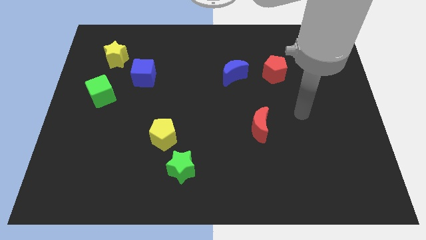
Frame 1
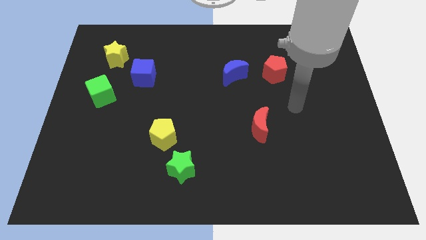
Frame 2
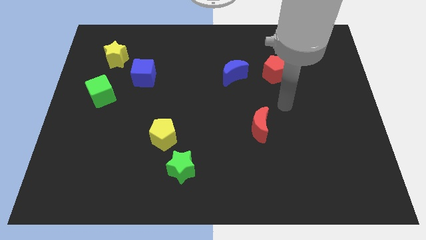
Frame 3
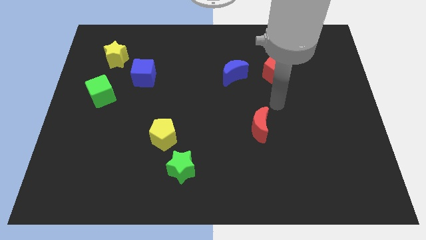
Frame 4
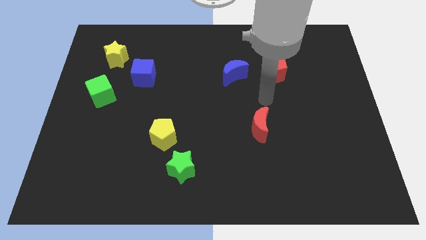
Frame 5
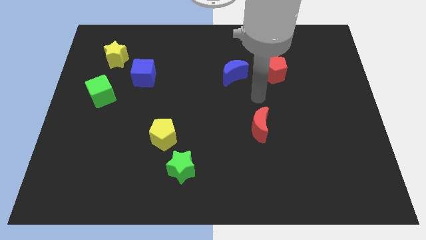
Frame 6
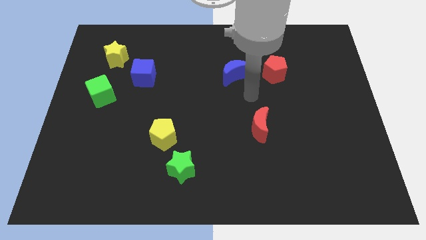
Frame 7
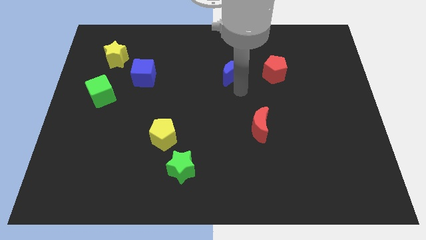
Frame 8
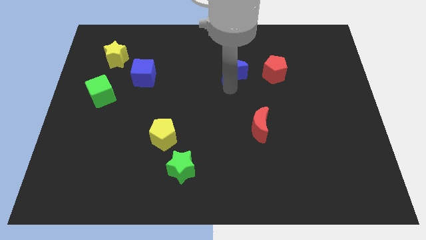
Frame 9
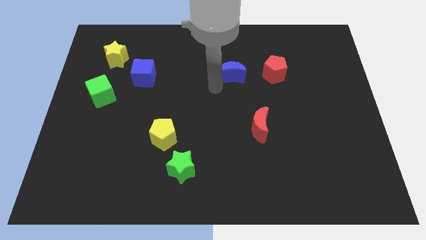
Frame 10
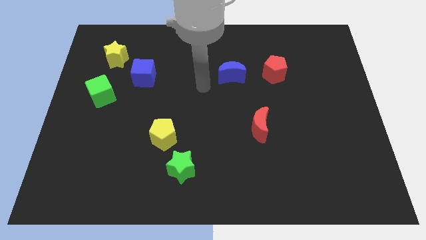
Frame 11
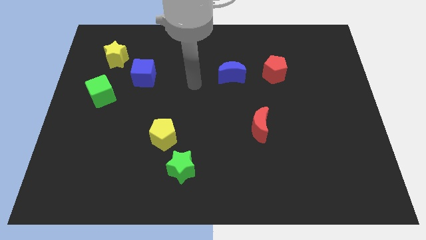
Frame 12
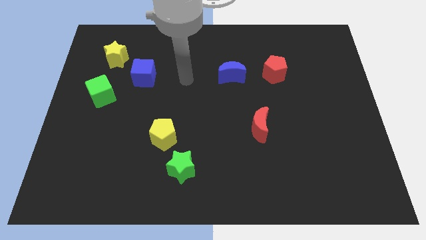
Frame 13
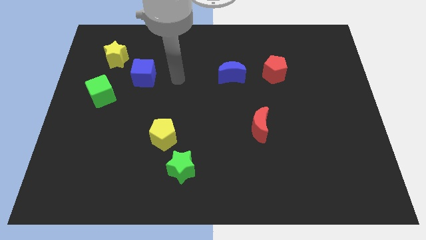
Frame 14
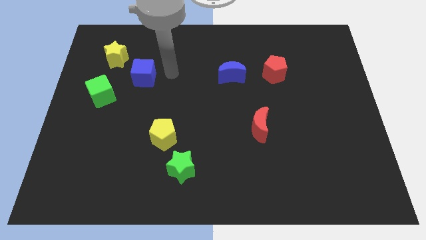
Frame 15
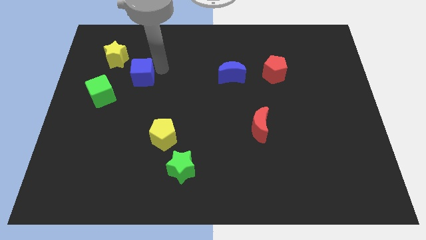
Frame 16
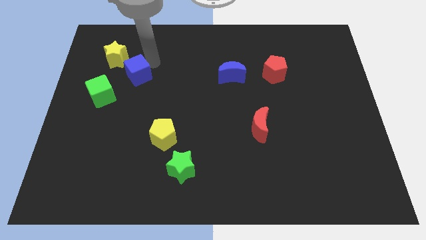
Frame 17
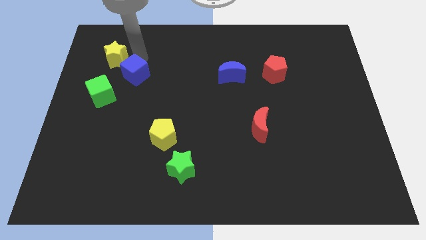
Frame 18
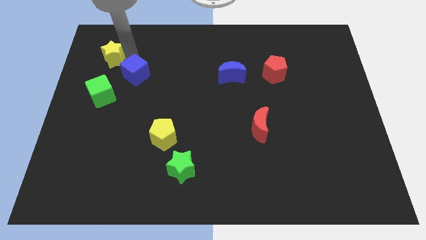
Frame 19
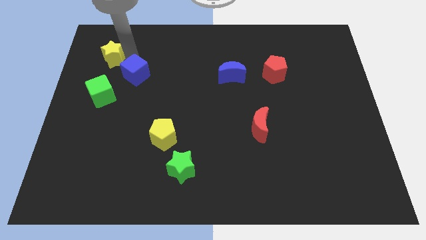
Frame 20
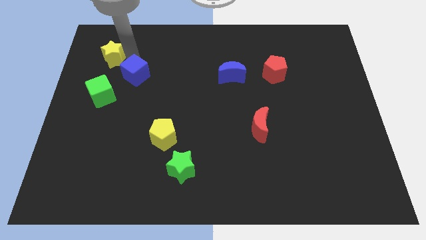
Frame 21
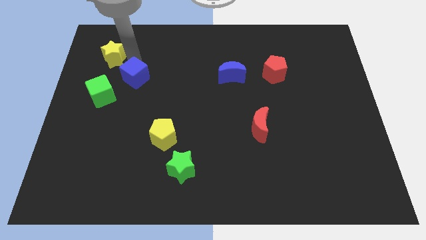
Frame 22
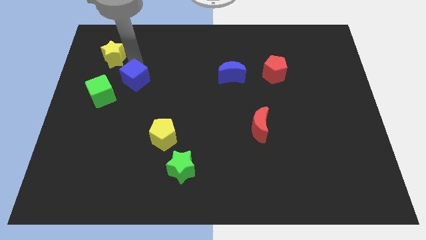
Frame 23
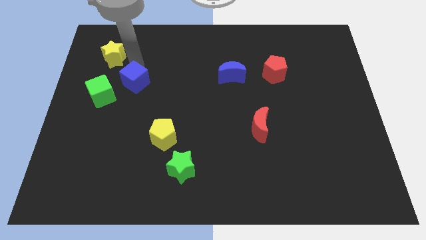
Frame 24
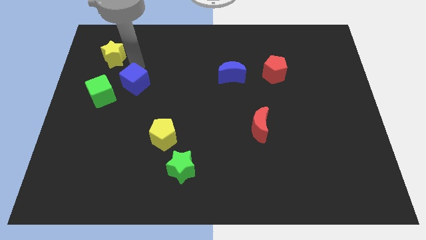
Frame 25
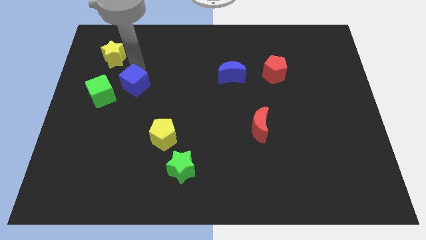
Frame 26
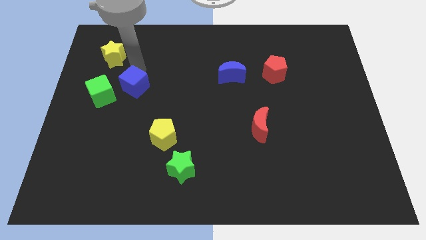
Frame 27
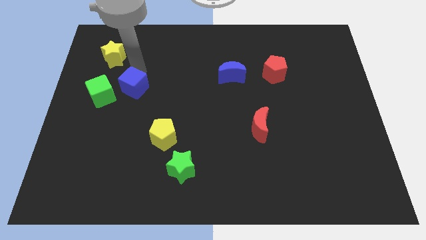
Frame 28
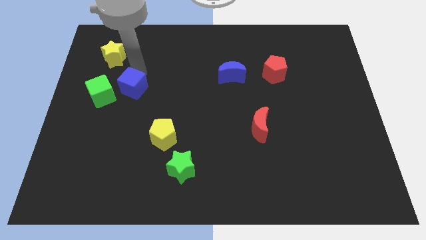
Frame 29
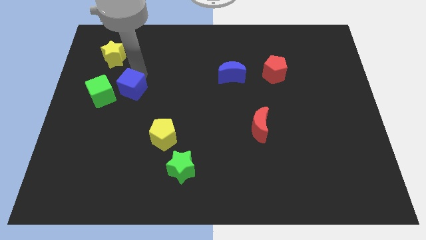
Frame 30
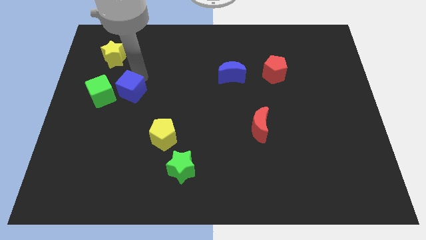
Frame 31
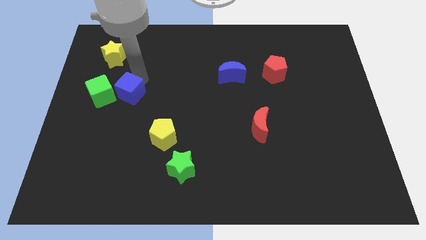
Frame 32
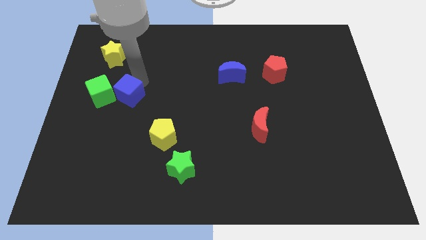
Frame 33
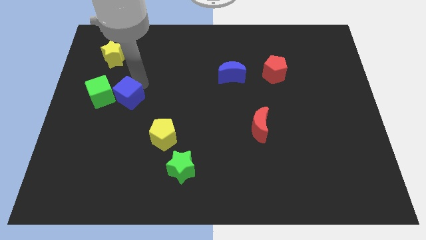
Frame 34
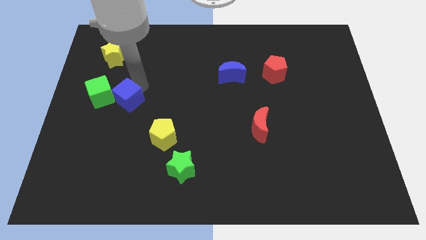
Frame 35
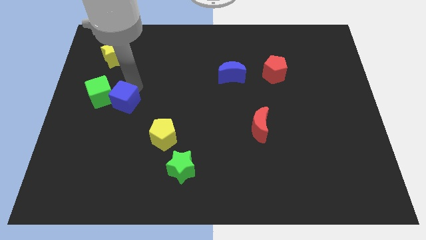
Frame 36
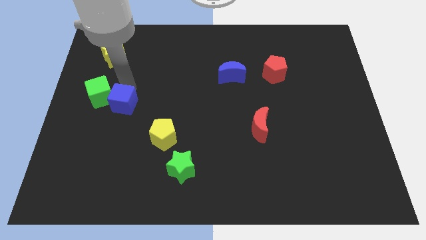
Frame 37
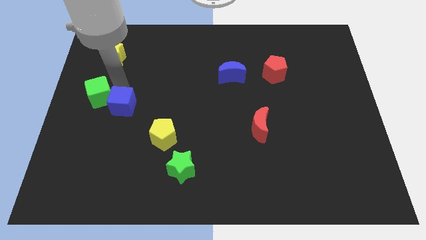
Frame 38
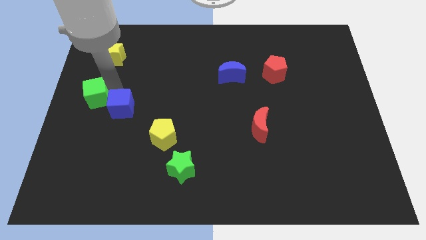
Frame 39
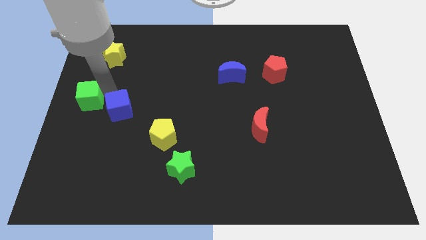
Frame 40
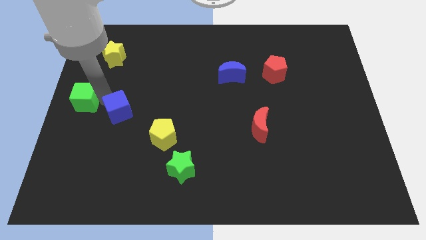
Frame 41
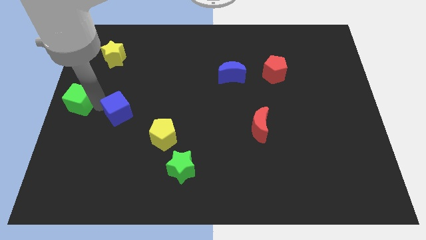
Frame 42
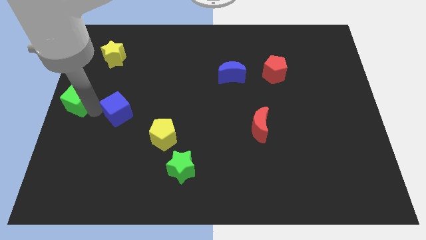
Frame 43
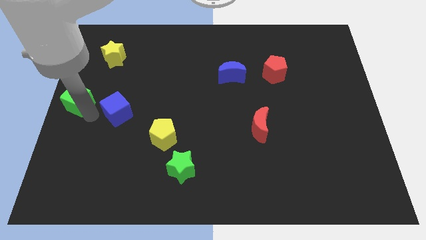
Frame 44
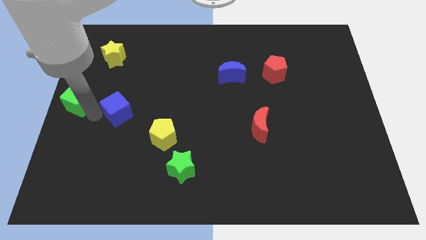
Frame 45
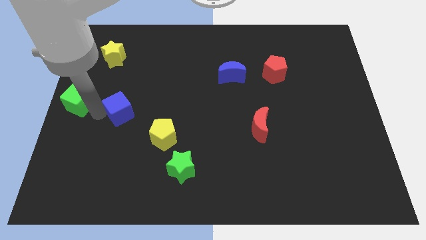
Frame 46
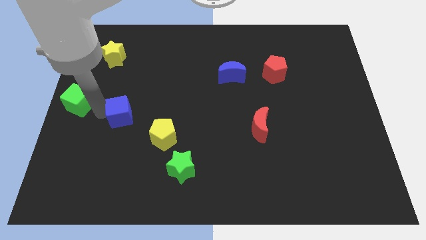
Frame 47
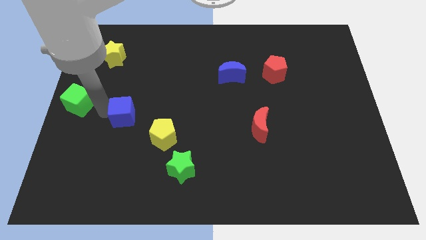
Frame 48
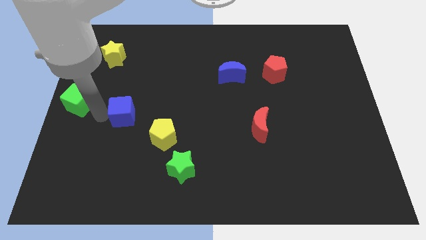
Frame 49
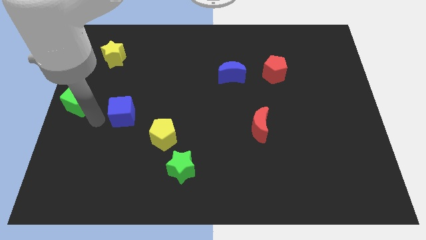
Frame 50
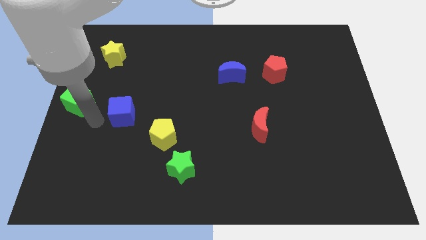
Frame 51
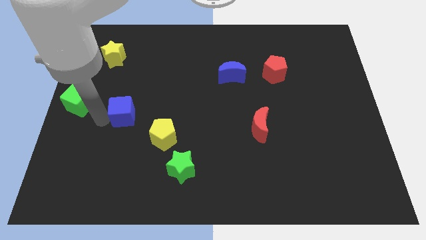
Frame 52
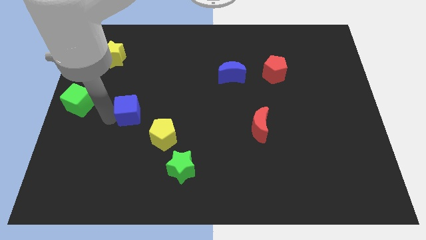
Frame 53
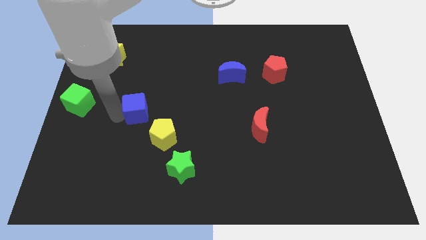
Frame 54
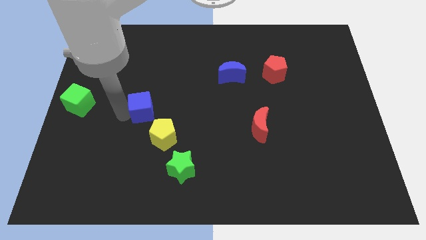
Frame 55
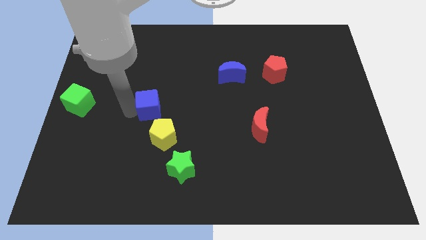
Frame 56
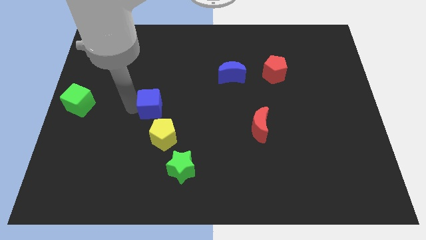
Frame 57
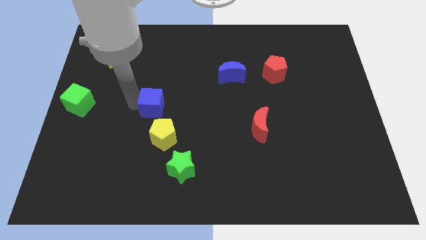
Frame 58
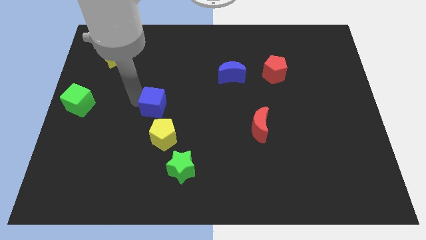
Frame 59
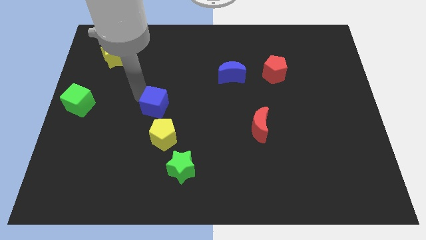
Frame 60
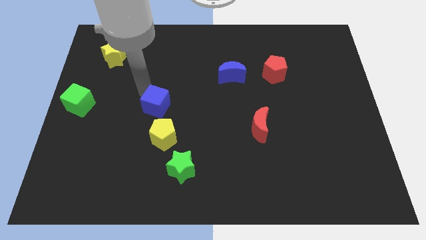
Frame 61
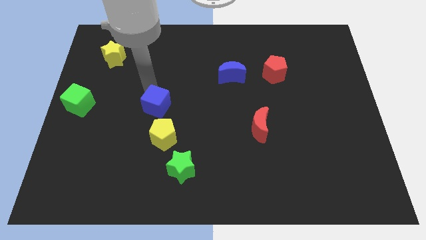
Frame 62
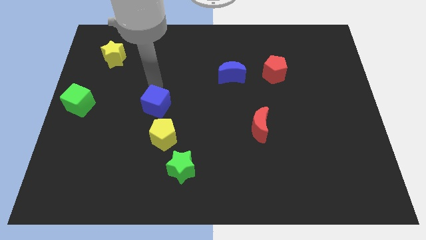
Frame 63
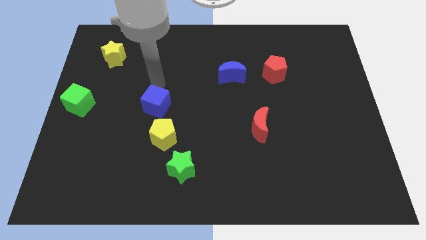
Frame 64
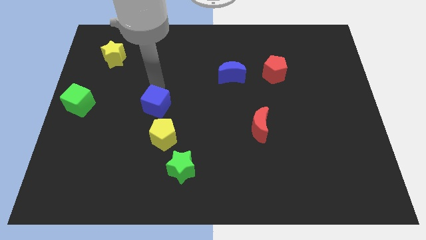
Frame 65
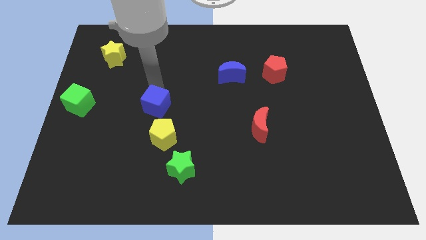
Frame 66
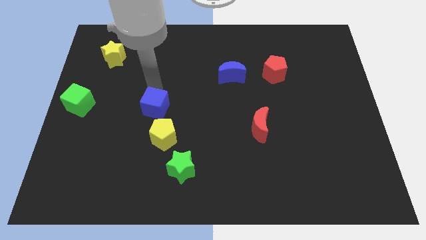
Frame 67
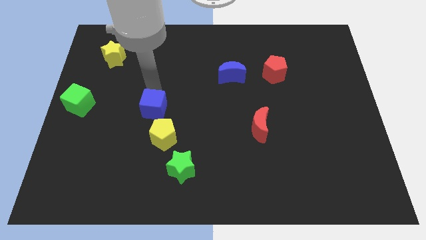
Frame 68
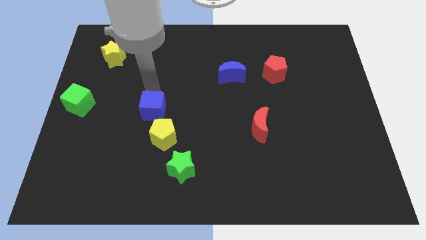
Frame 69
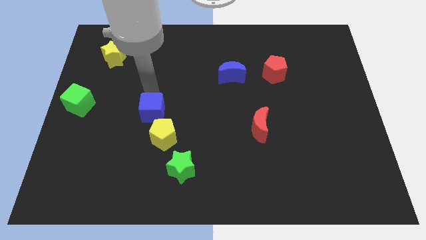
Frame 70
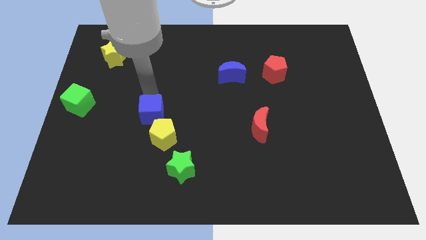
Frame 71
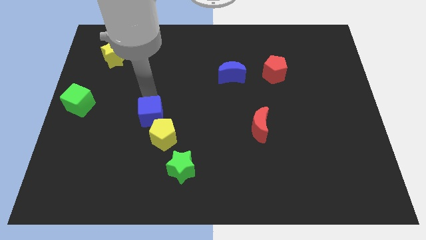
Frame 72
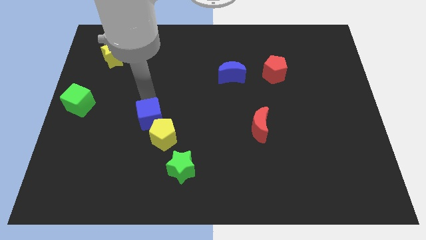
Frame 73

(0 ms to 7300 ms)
push the blue cube to the yellow pentagon

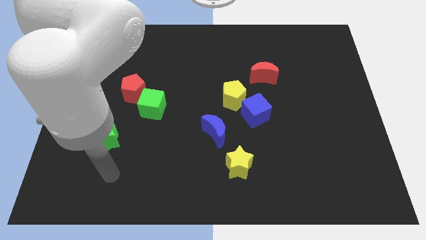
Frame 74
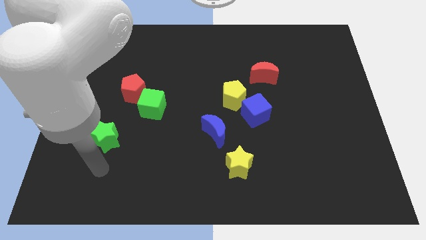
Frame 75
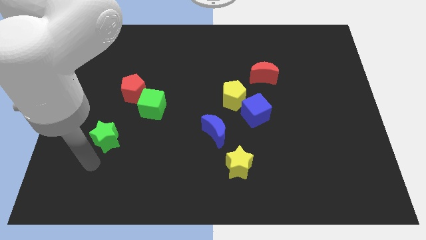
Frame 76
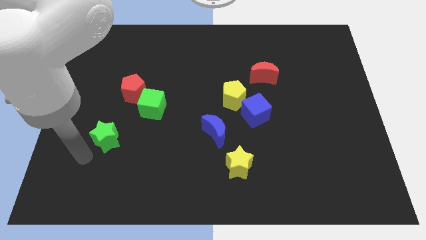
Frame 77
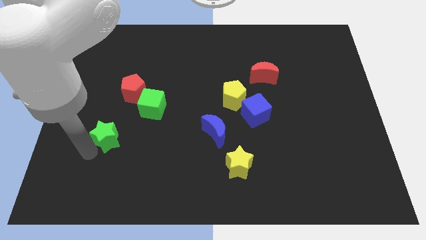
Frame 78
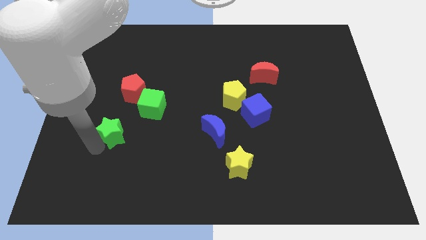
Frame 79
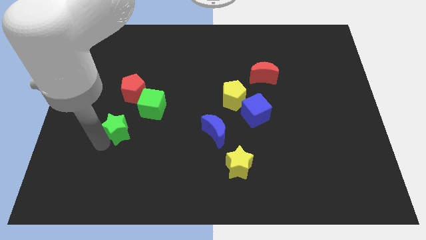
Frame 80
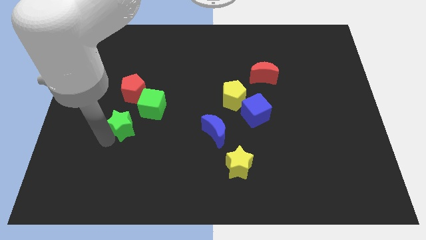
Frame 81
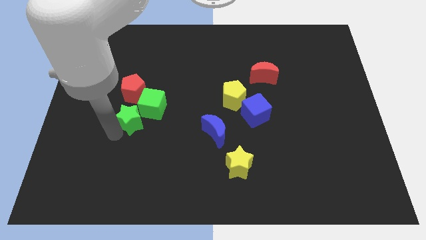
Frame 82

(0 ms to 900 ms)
push the green star towards the green cube

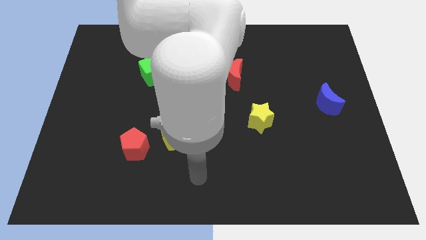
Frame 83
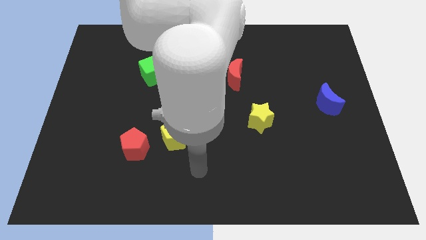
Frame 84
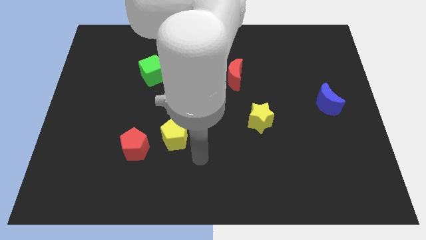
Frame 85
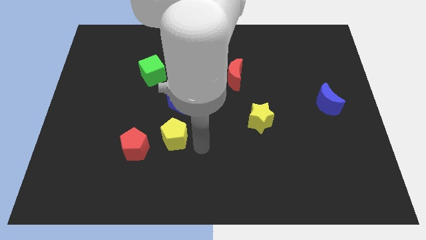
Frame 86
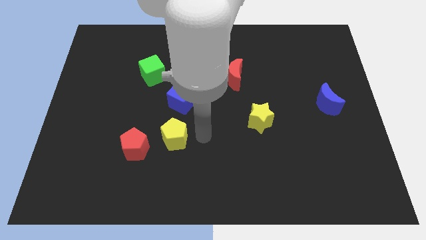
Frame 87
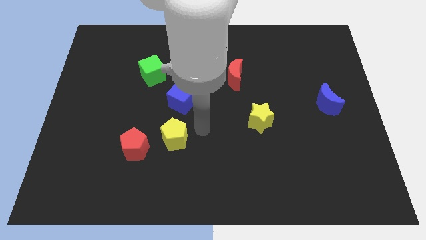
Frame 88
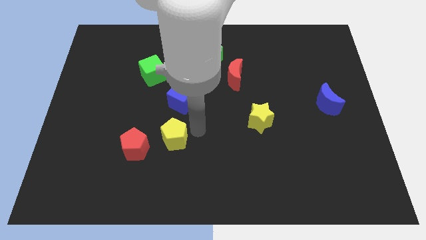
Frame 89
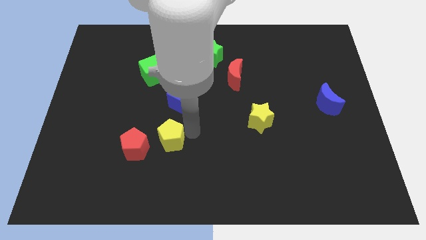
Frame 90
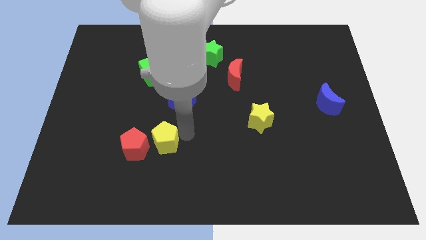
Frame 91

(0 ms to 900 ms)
put the yellow pentagon to the red pentagon
